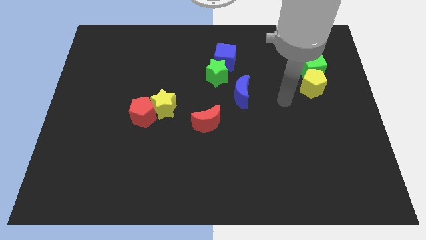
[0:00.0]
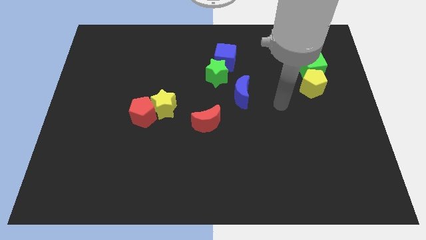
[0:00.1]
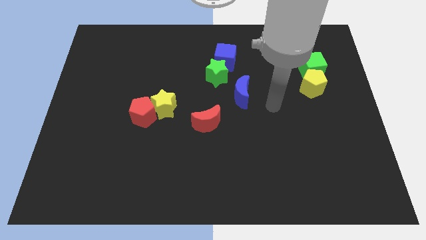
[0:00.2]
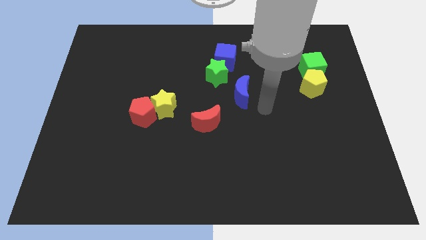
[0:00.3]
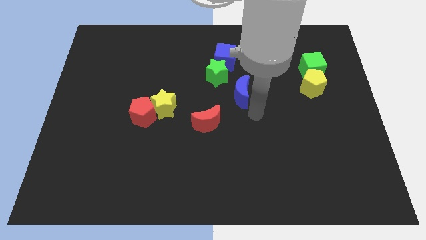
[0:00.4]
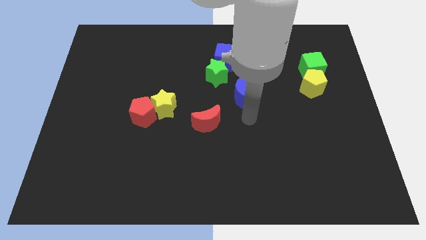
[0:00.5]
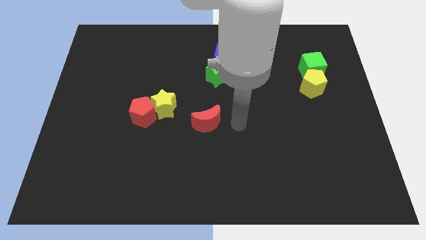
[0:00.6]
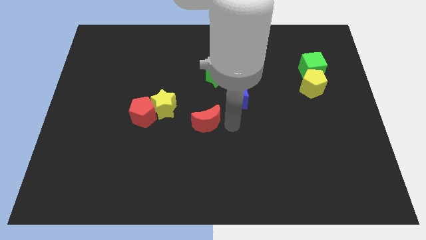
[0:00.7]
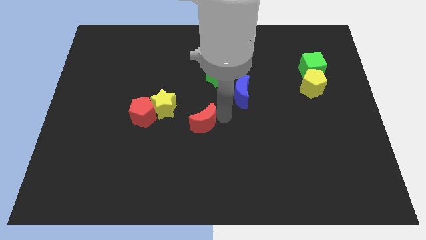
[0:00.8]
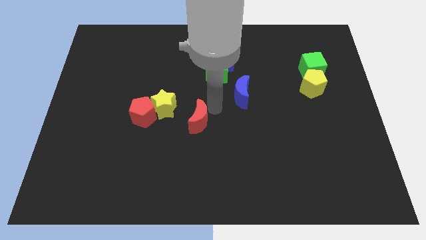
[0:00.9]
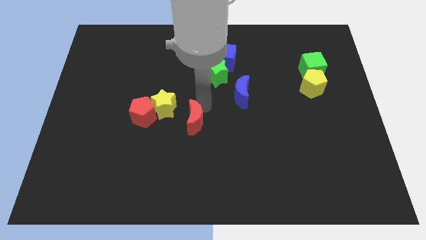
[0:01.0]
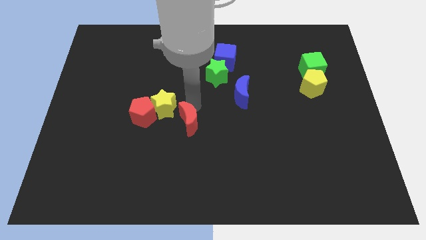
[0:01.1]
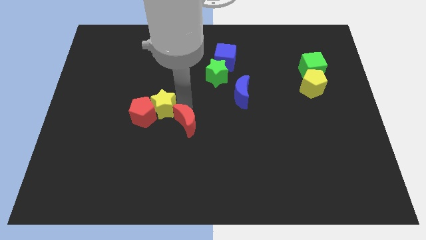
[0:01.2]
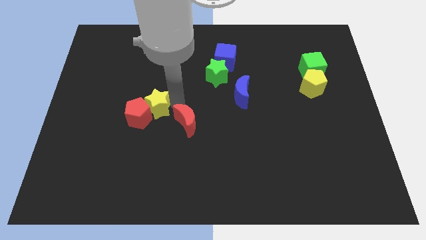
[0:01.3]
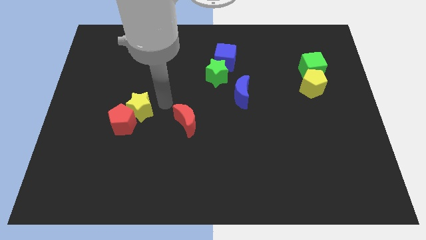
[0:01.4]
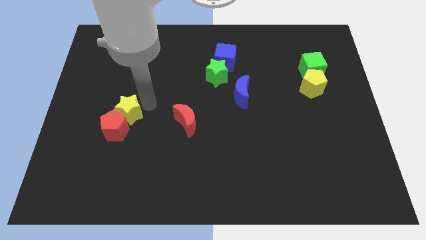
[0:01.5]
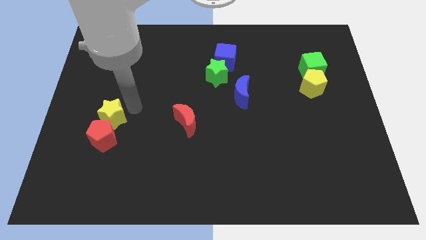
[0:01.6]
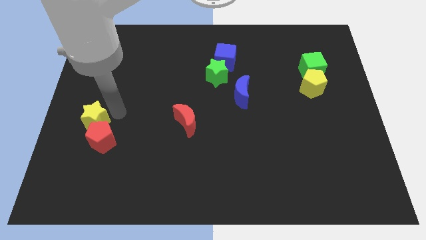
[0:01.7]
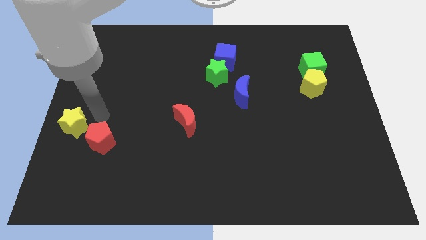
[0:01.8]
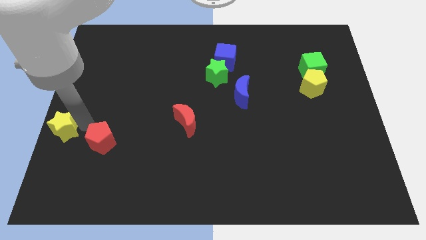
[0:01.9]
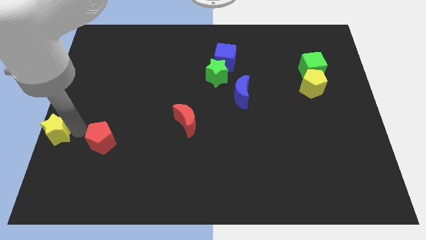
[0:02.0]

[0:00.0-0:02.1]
separate the red pentagon from the yellow star

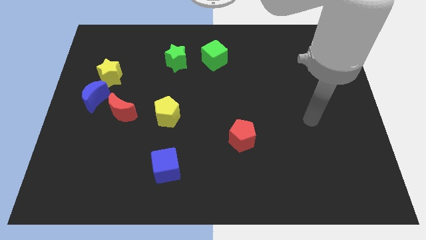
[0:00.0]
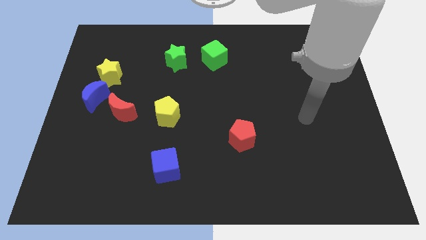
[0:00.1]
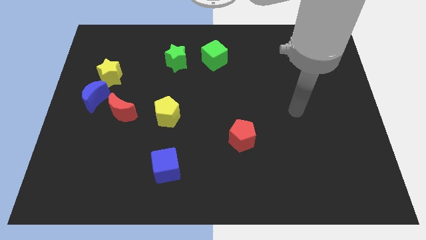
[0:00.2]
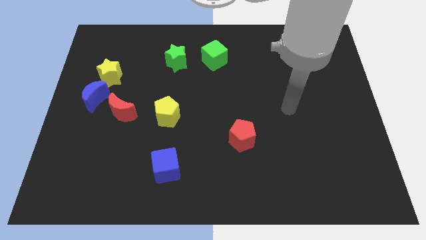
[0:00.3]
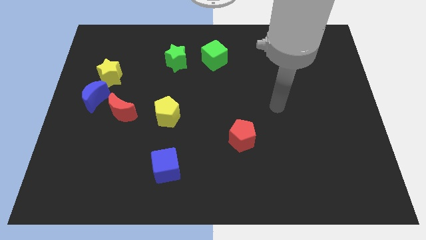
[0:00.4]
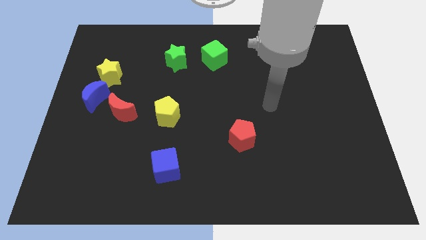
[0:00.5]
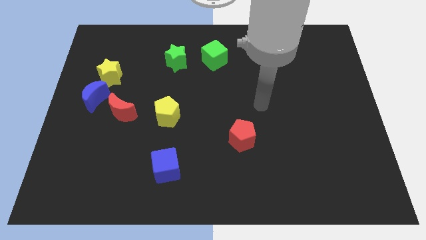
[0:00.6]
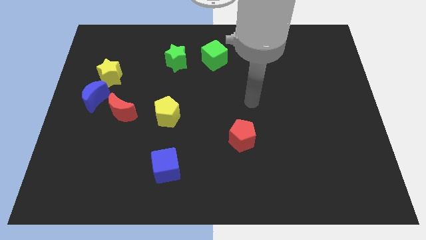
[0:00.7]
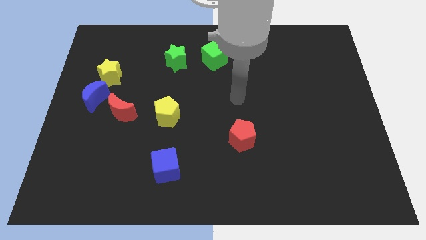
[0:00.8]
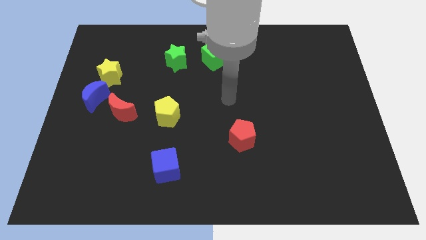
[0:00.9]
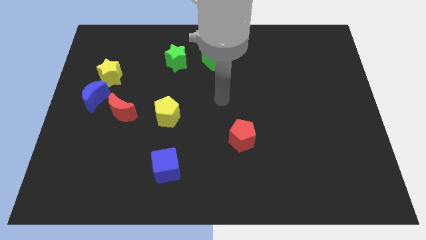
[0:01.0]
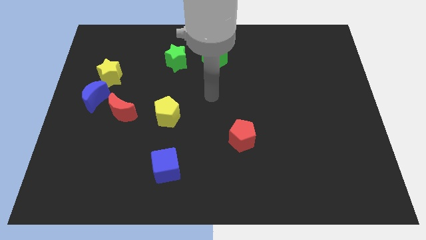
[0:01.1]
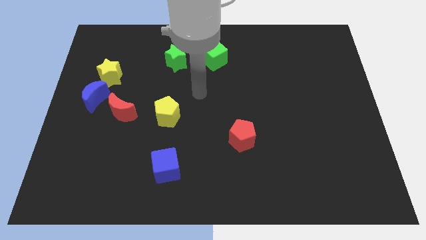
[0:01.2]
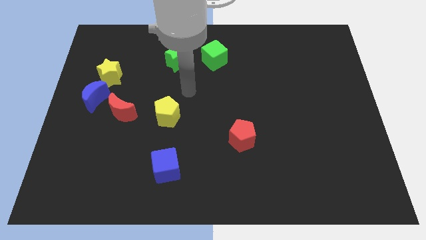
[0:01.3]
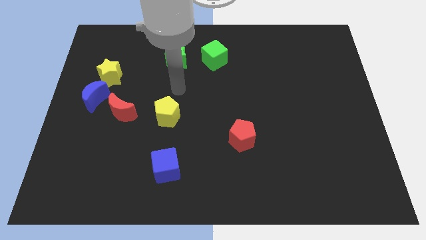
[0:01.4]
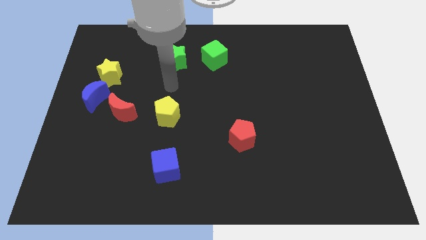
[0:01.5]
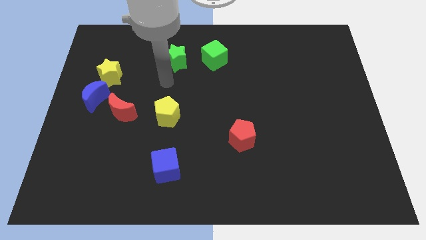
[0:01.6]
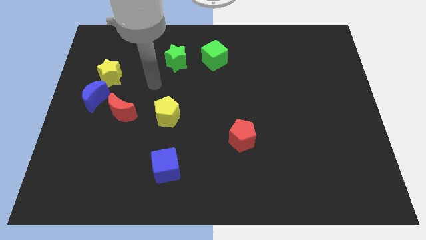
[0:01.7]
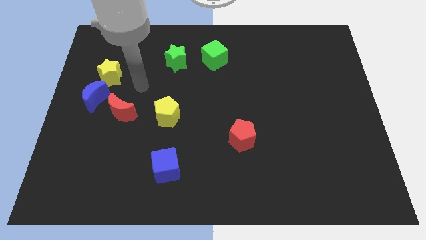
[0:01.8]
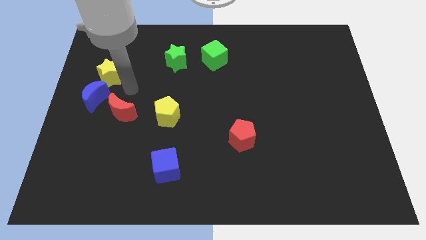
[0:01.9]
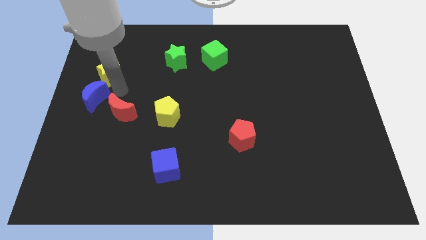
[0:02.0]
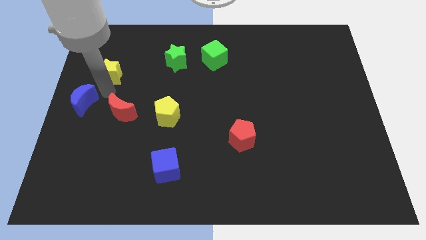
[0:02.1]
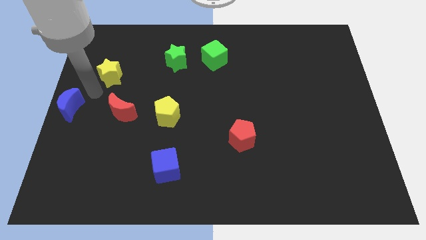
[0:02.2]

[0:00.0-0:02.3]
separate the yellow star from the blue moon

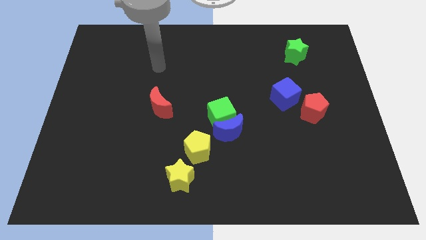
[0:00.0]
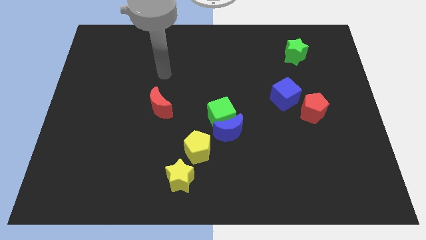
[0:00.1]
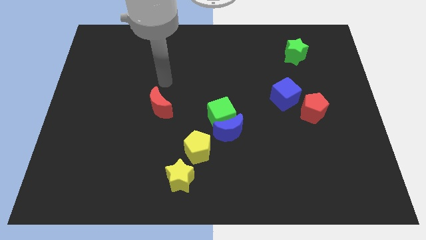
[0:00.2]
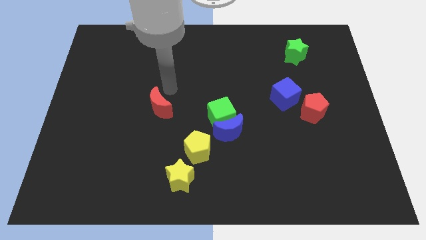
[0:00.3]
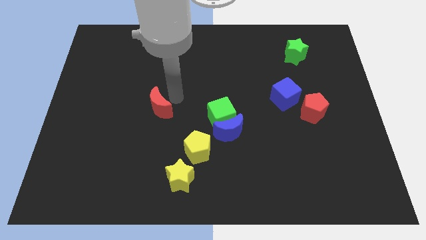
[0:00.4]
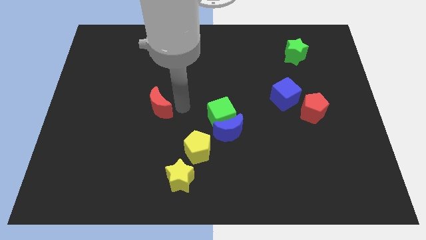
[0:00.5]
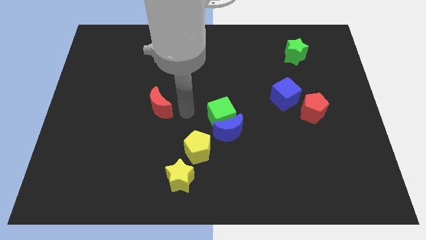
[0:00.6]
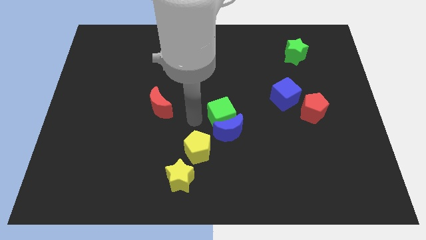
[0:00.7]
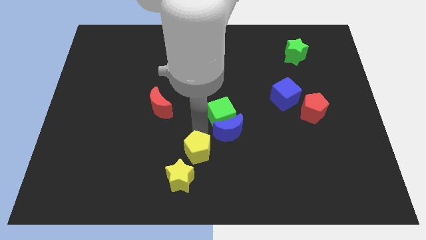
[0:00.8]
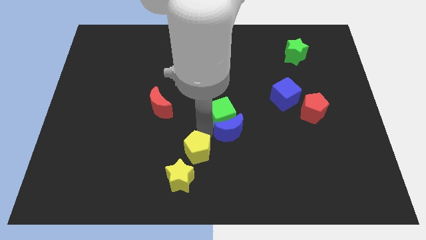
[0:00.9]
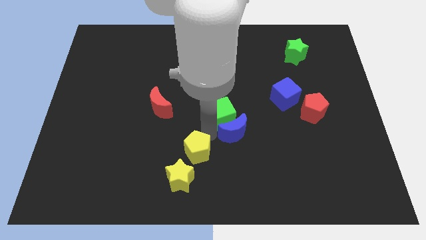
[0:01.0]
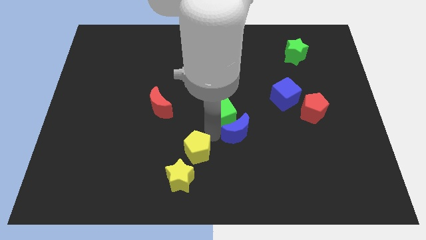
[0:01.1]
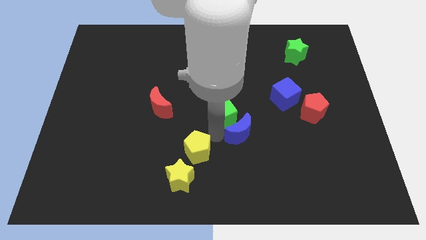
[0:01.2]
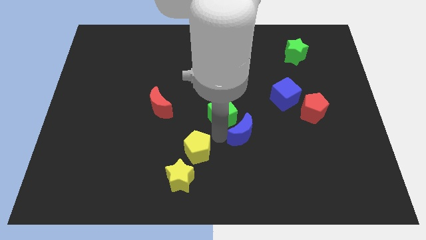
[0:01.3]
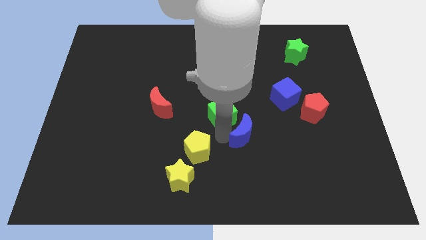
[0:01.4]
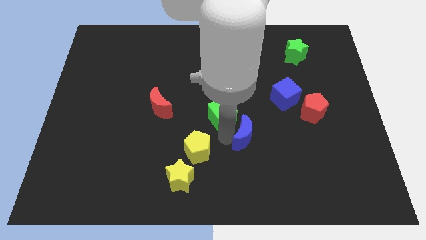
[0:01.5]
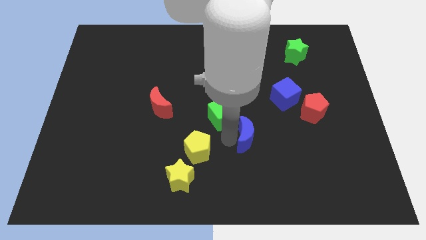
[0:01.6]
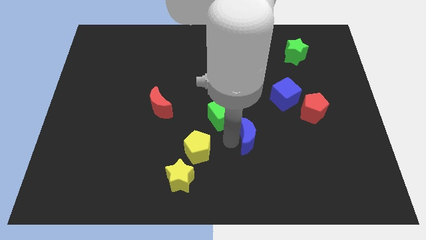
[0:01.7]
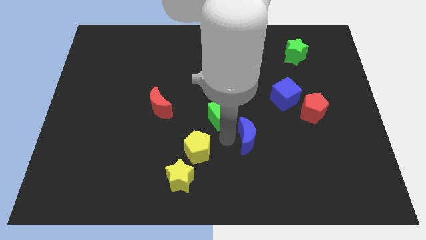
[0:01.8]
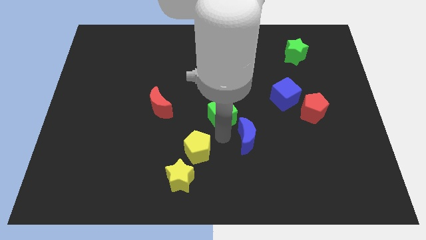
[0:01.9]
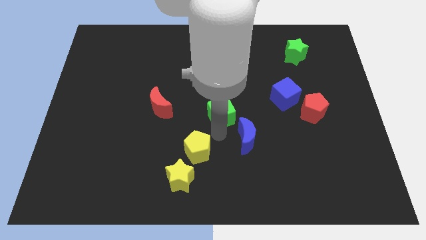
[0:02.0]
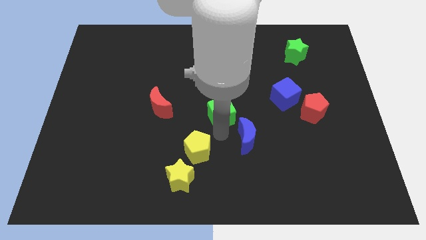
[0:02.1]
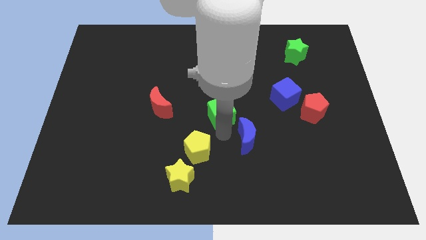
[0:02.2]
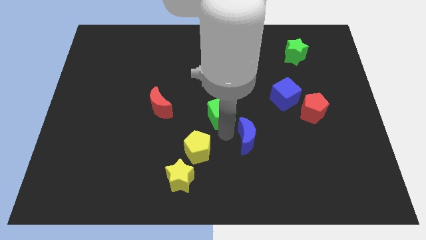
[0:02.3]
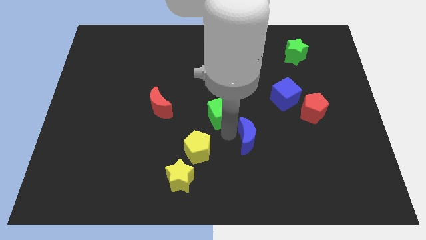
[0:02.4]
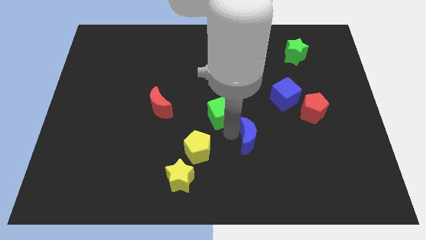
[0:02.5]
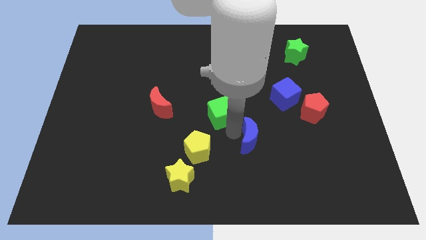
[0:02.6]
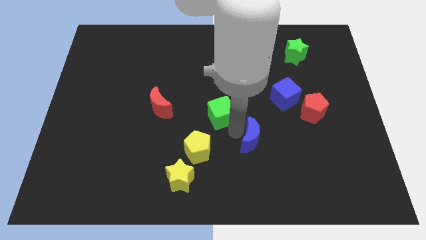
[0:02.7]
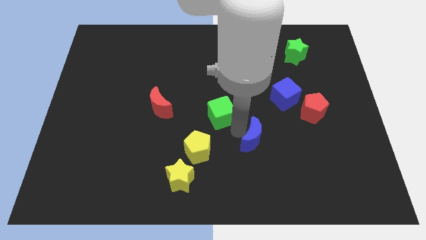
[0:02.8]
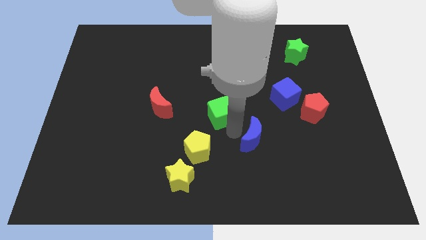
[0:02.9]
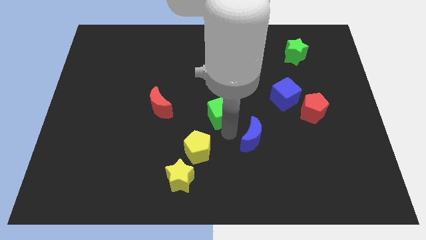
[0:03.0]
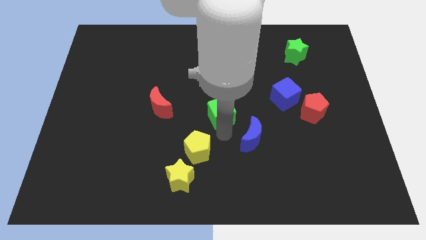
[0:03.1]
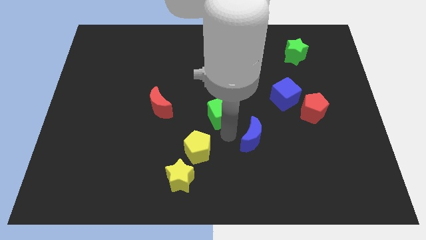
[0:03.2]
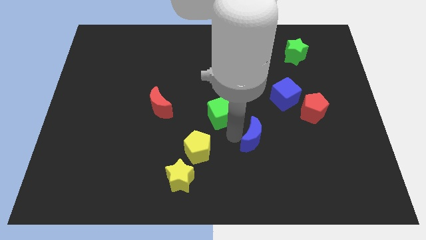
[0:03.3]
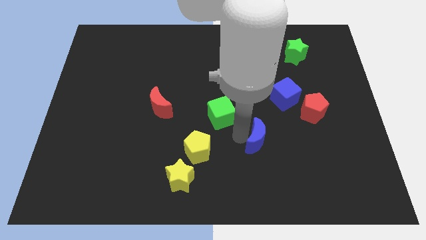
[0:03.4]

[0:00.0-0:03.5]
pull the blue moon apart from the green cube and yellow pentagon

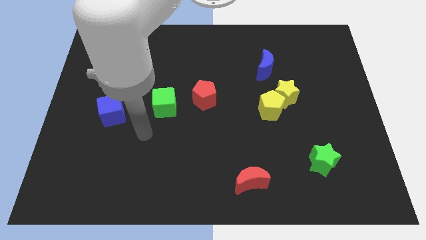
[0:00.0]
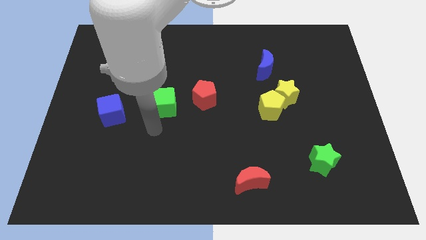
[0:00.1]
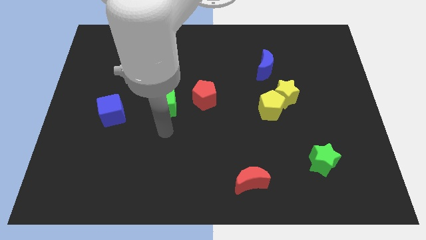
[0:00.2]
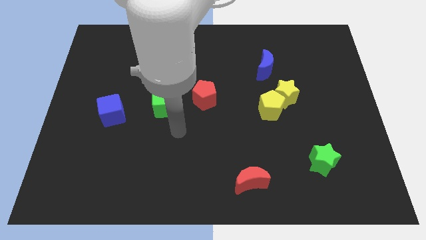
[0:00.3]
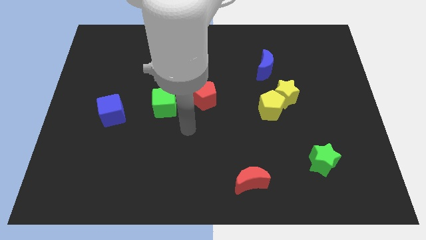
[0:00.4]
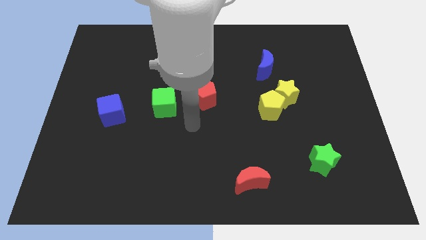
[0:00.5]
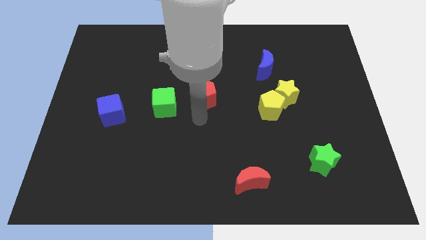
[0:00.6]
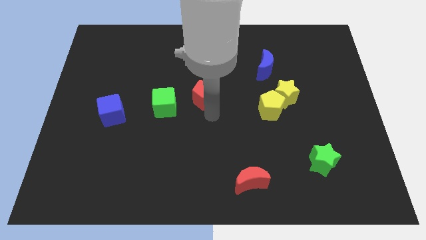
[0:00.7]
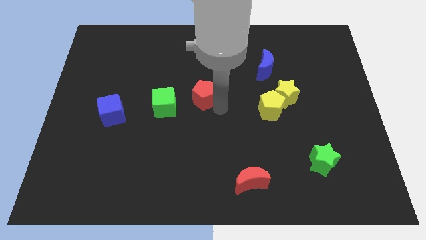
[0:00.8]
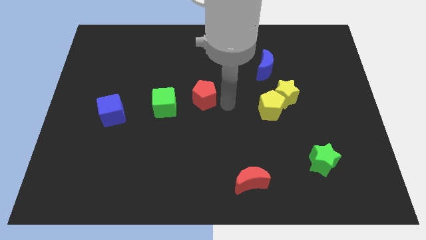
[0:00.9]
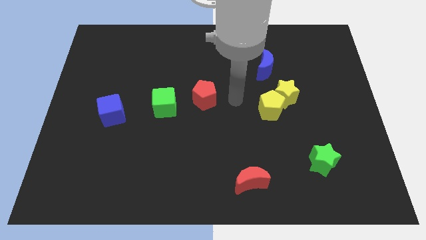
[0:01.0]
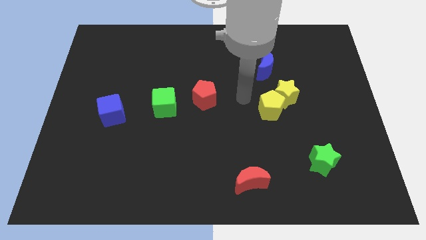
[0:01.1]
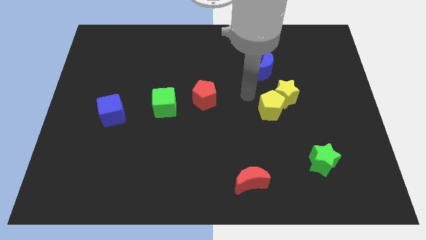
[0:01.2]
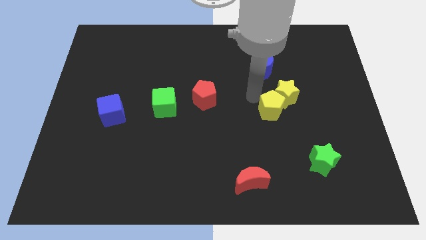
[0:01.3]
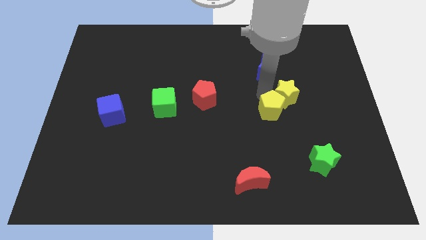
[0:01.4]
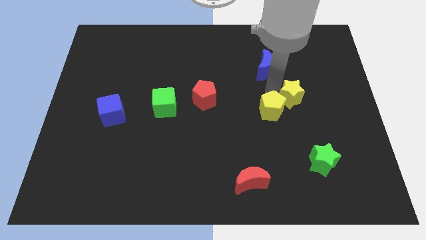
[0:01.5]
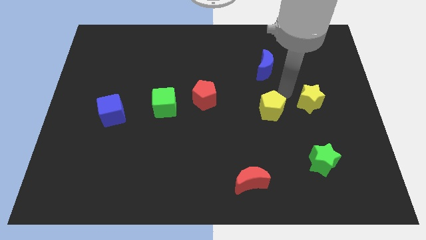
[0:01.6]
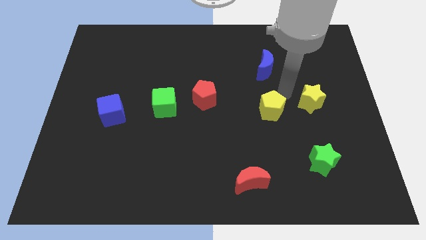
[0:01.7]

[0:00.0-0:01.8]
pull the yellow pentagon apart from the yellow star
